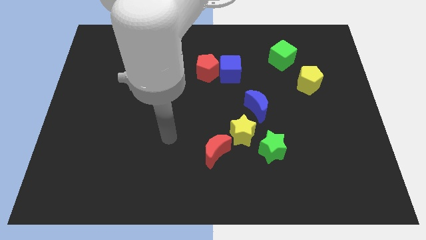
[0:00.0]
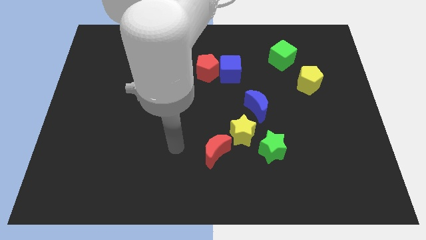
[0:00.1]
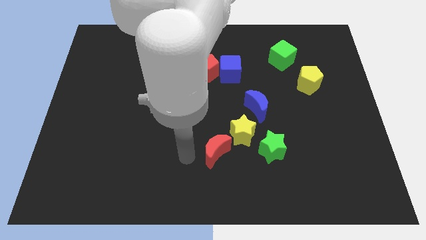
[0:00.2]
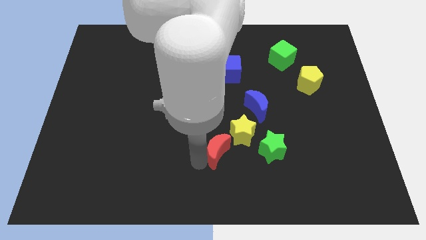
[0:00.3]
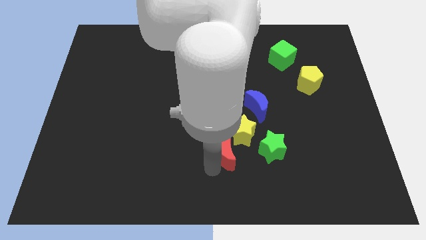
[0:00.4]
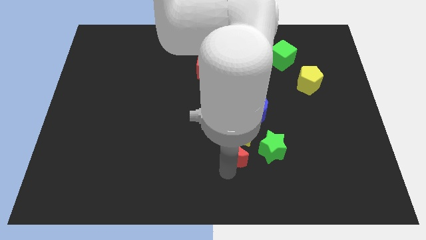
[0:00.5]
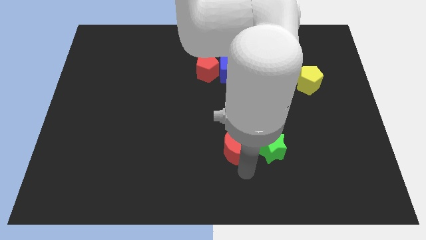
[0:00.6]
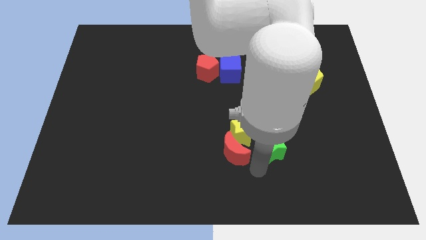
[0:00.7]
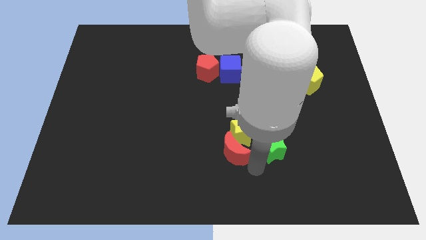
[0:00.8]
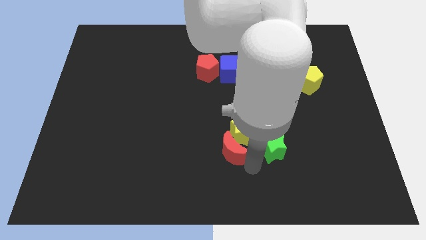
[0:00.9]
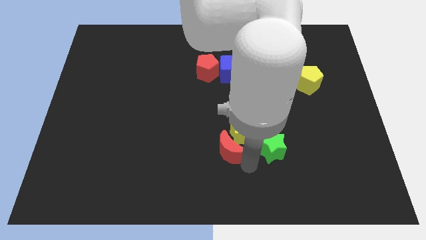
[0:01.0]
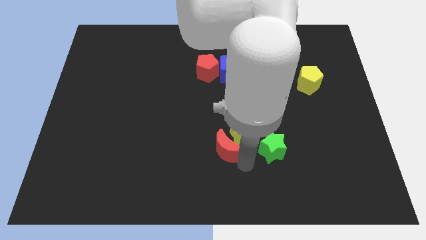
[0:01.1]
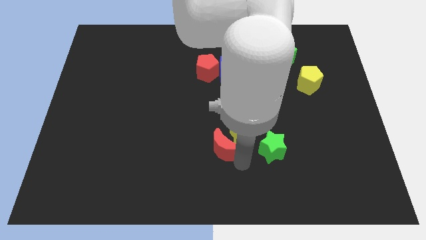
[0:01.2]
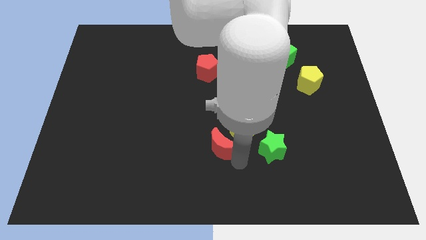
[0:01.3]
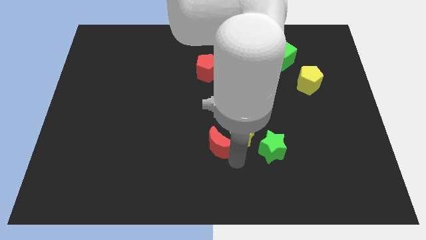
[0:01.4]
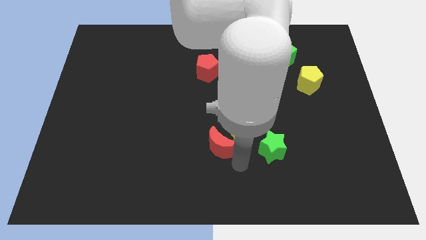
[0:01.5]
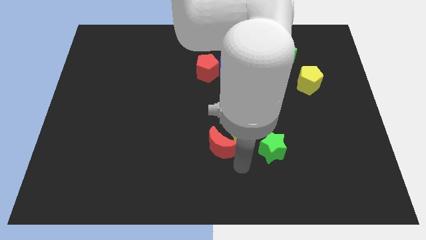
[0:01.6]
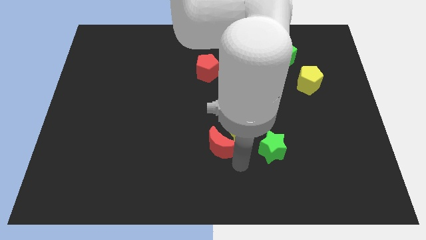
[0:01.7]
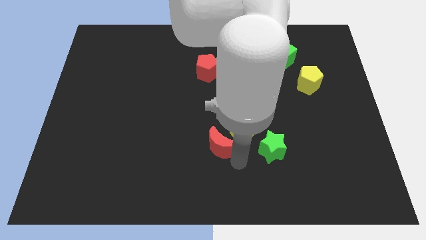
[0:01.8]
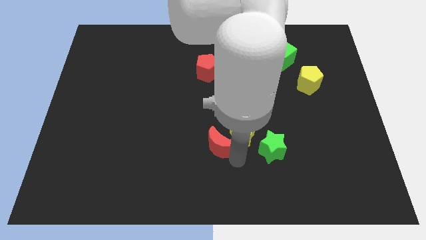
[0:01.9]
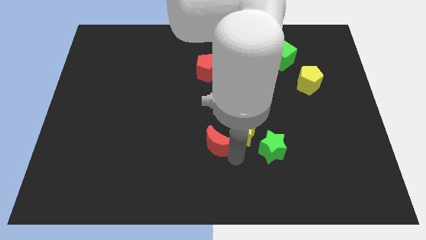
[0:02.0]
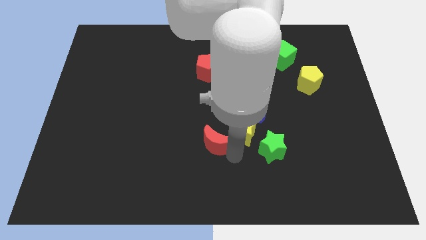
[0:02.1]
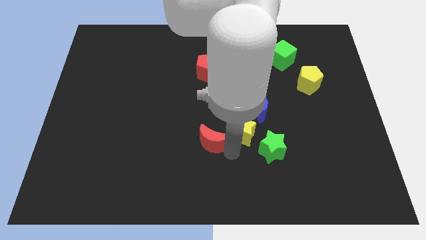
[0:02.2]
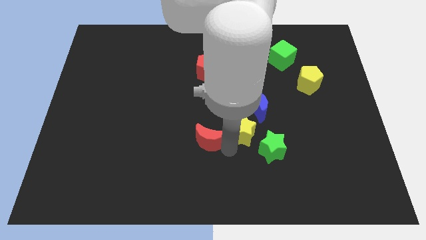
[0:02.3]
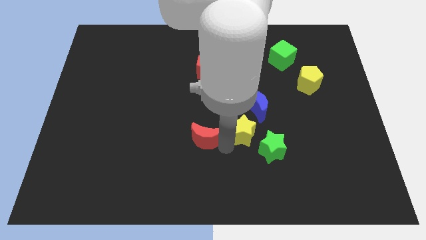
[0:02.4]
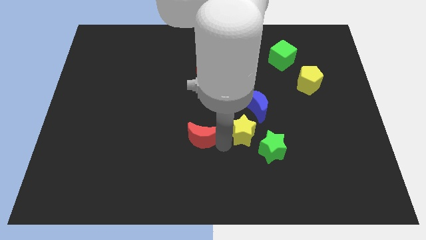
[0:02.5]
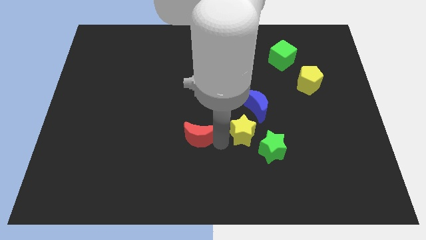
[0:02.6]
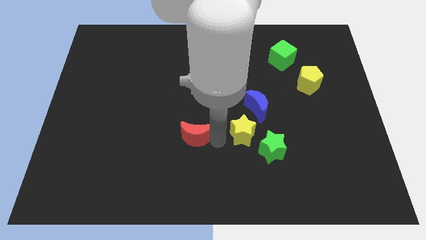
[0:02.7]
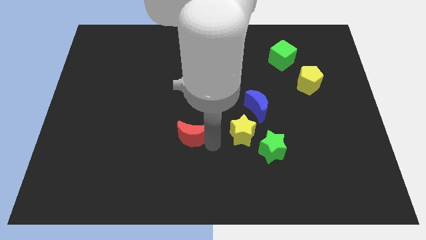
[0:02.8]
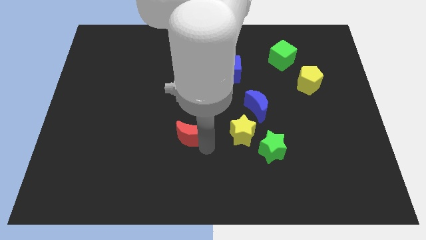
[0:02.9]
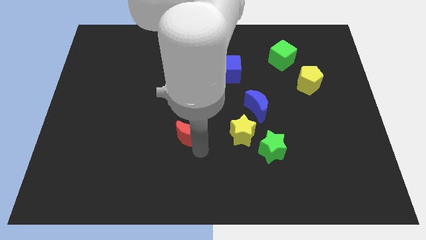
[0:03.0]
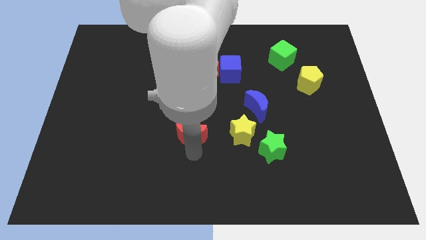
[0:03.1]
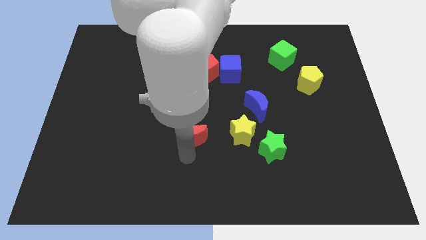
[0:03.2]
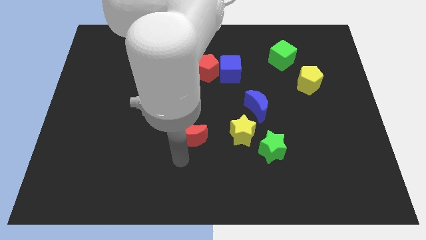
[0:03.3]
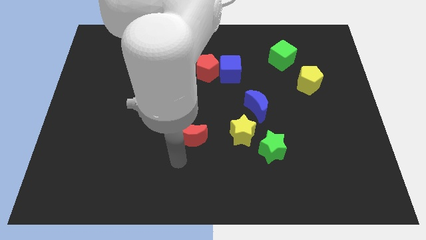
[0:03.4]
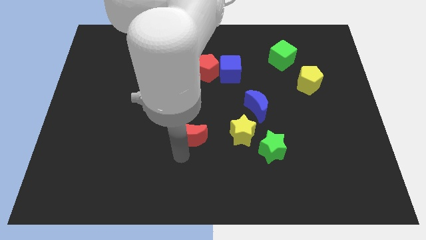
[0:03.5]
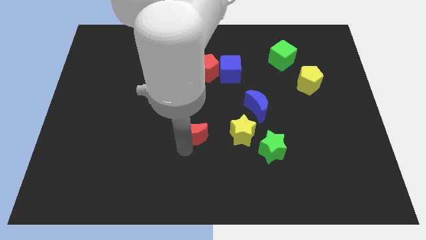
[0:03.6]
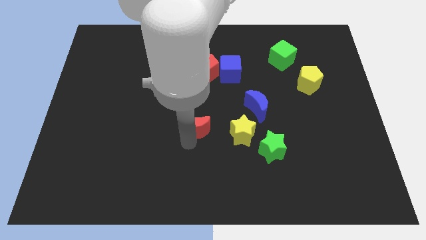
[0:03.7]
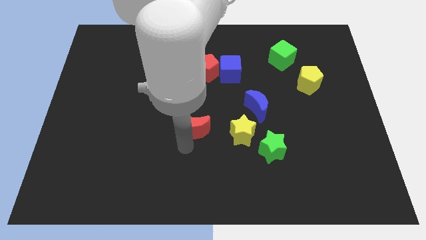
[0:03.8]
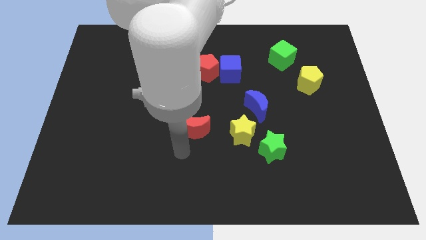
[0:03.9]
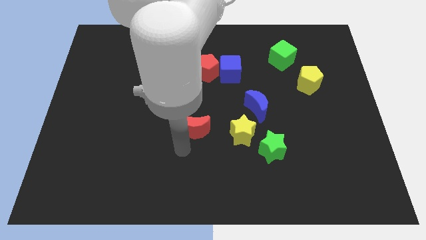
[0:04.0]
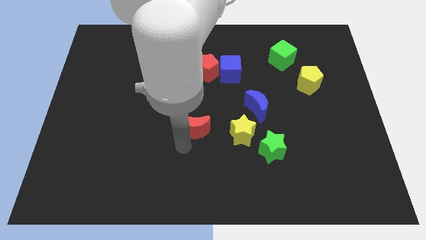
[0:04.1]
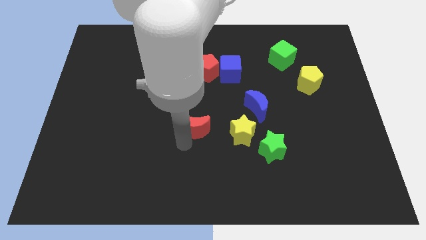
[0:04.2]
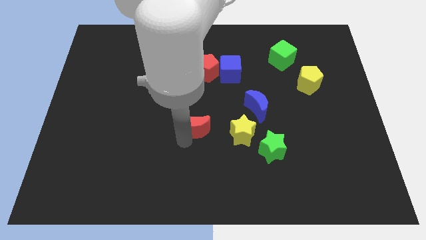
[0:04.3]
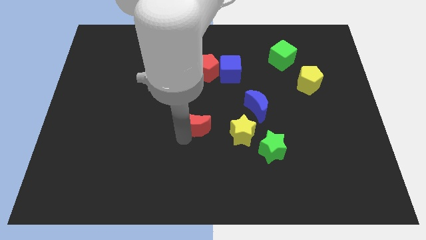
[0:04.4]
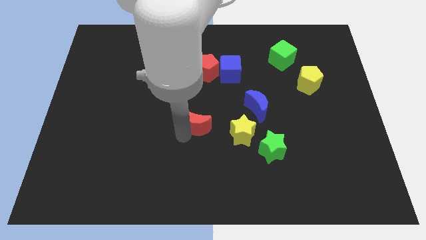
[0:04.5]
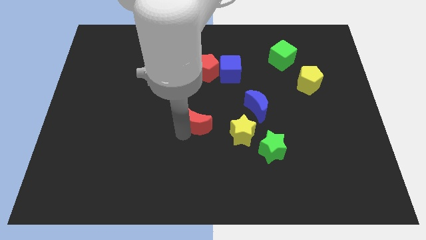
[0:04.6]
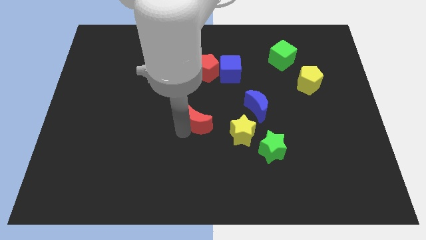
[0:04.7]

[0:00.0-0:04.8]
slide the red moon slightly up

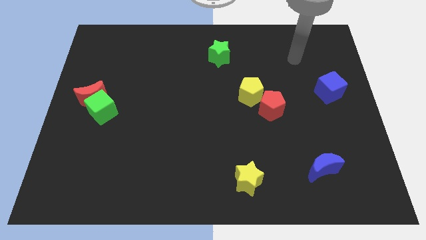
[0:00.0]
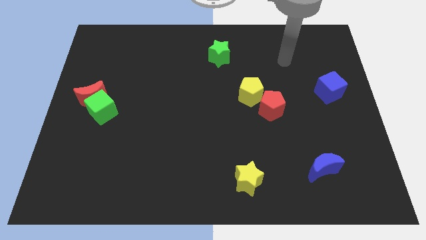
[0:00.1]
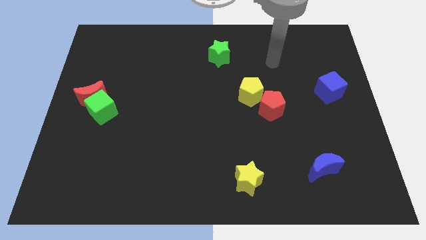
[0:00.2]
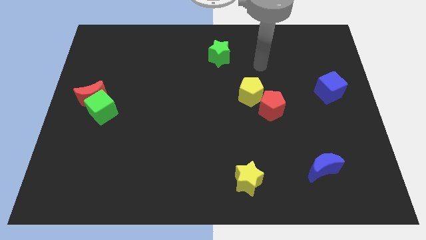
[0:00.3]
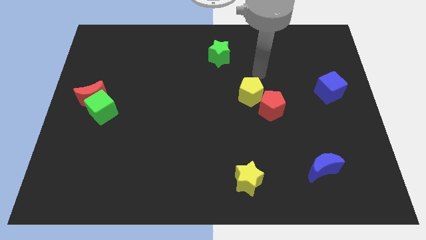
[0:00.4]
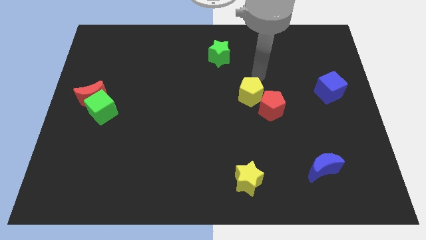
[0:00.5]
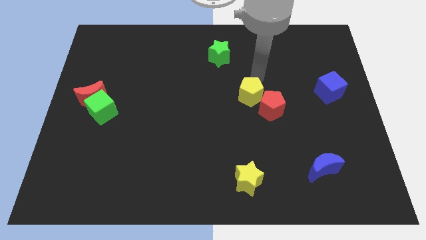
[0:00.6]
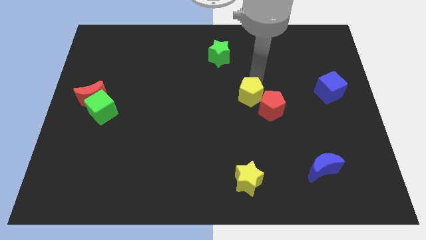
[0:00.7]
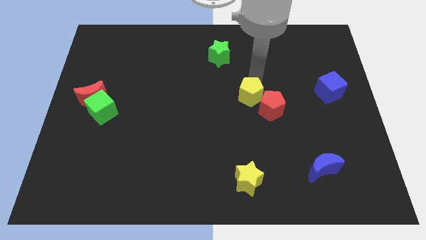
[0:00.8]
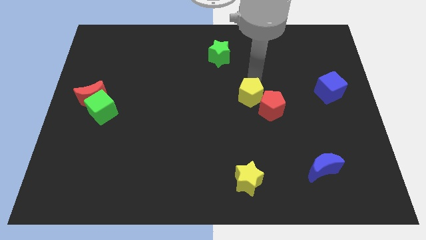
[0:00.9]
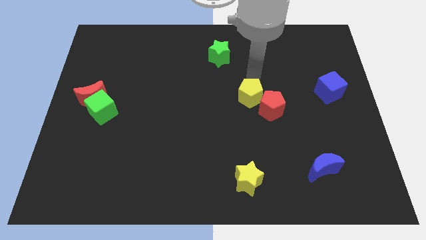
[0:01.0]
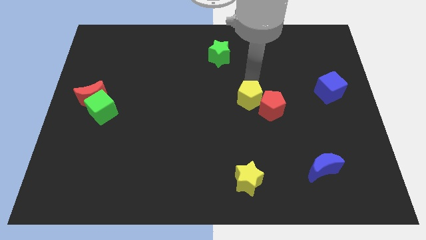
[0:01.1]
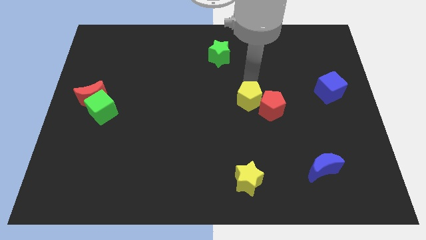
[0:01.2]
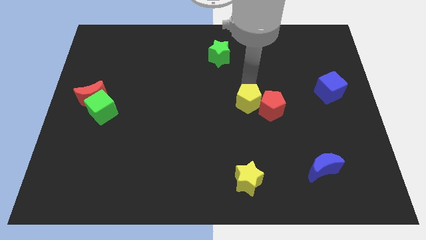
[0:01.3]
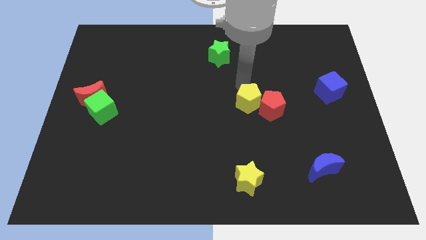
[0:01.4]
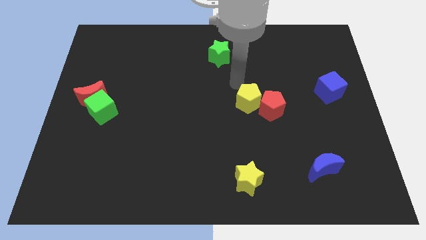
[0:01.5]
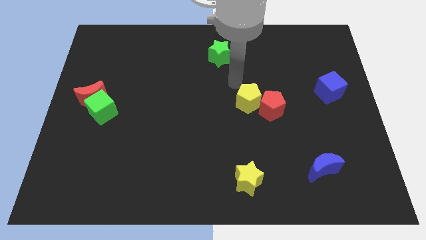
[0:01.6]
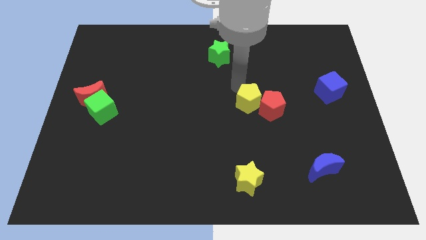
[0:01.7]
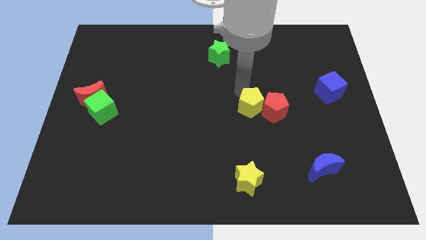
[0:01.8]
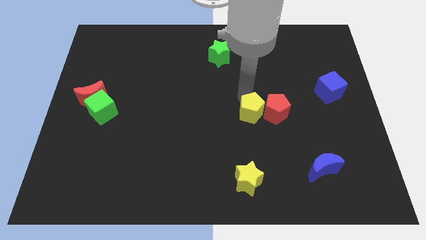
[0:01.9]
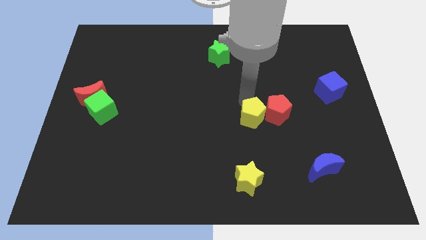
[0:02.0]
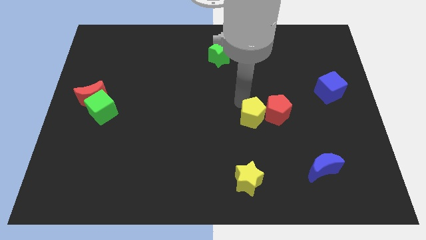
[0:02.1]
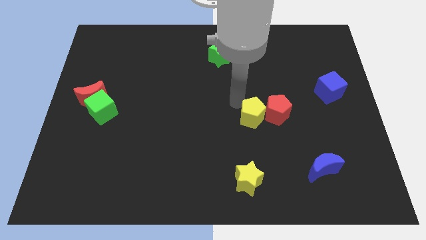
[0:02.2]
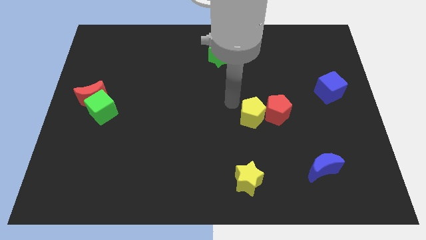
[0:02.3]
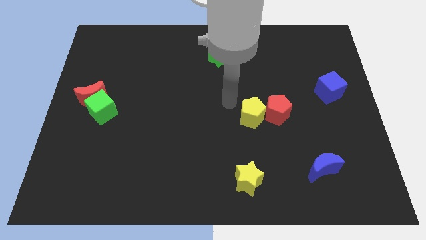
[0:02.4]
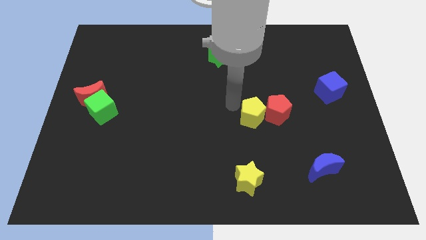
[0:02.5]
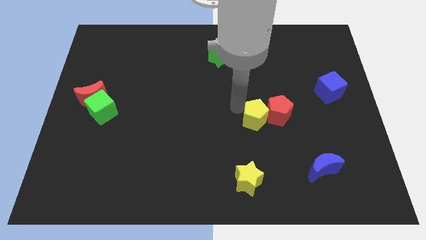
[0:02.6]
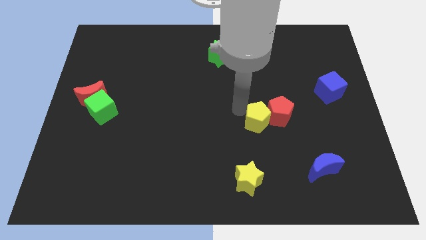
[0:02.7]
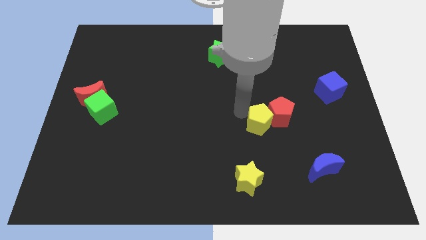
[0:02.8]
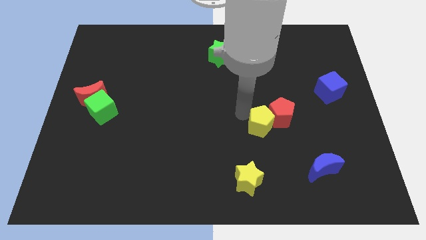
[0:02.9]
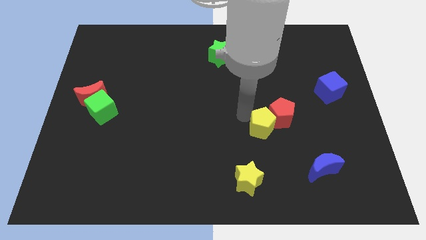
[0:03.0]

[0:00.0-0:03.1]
slightly slide the yellow pentagon downwards and to the right
